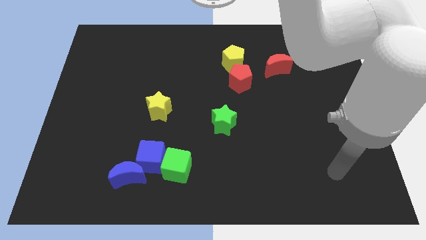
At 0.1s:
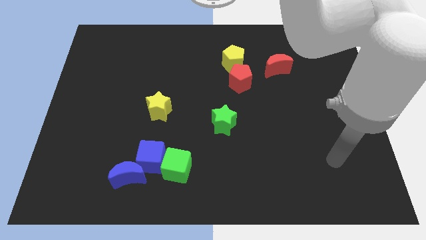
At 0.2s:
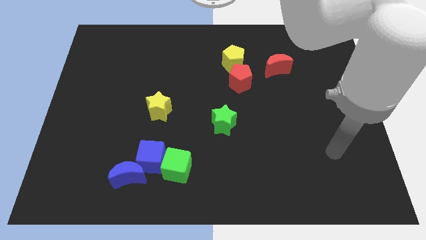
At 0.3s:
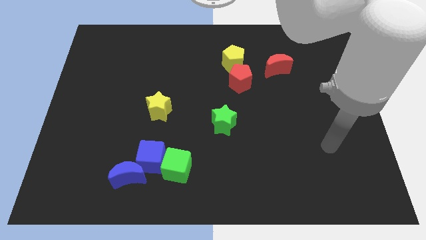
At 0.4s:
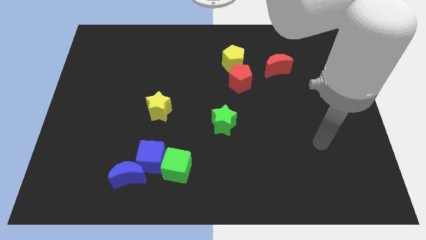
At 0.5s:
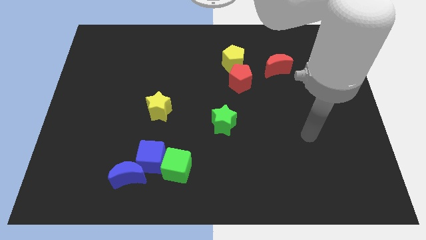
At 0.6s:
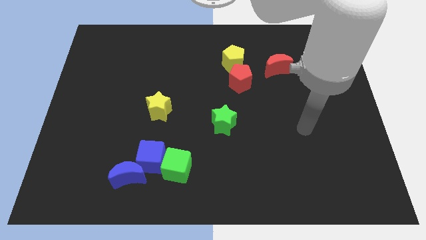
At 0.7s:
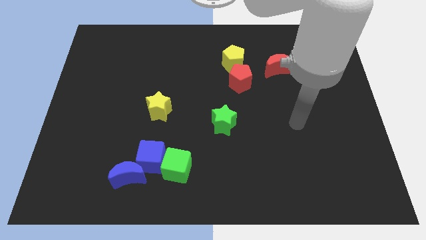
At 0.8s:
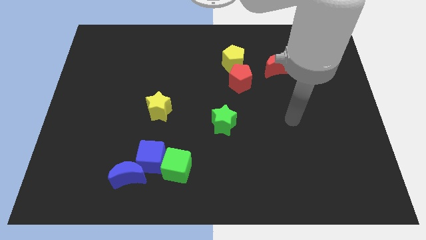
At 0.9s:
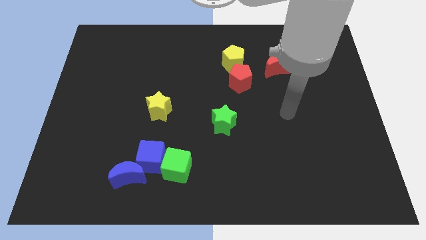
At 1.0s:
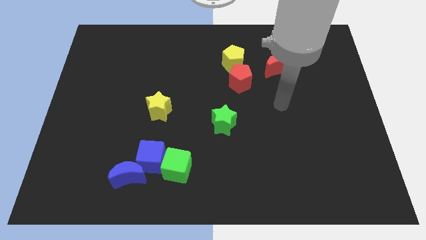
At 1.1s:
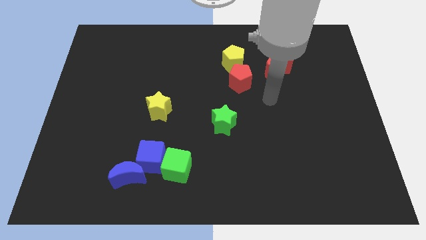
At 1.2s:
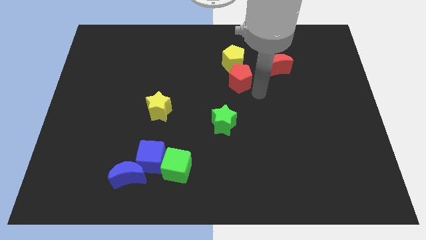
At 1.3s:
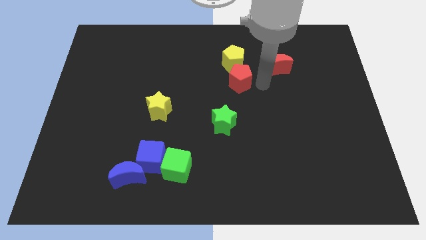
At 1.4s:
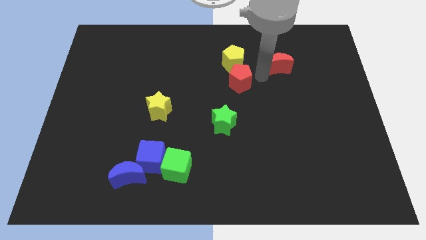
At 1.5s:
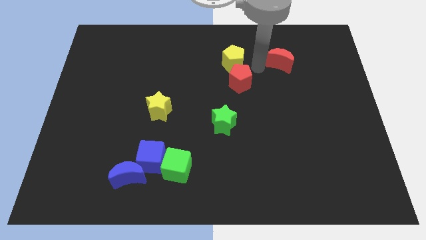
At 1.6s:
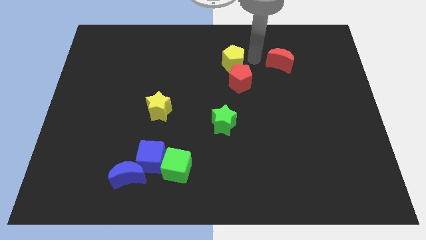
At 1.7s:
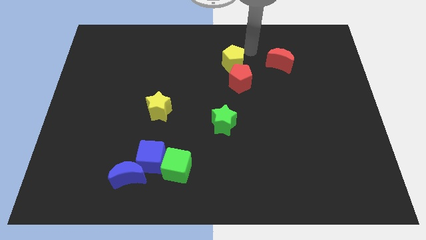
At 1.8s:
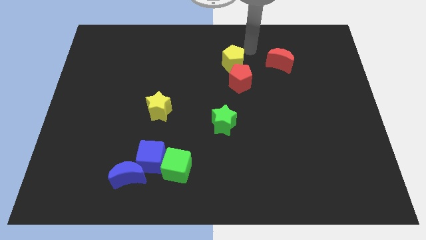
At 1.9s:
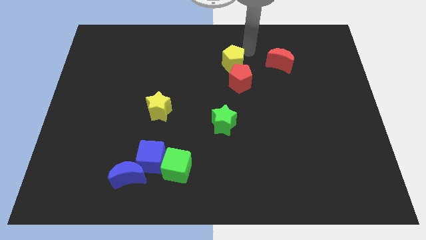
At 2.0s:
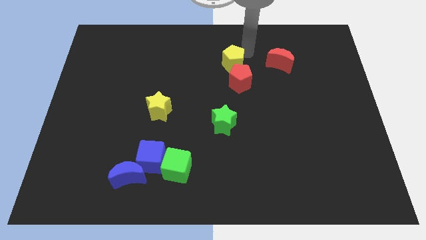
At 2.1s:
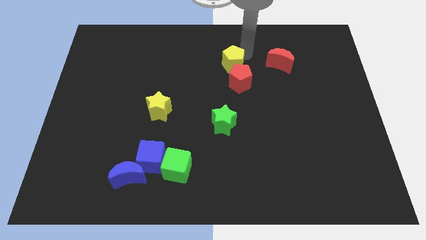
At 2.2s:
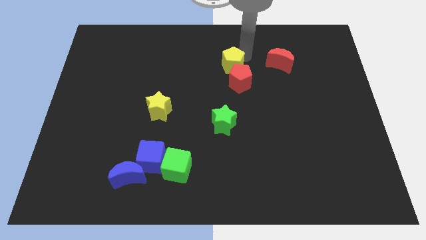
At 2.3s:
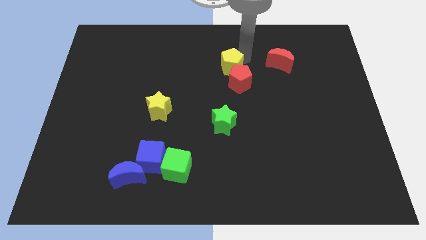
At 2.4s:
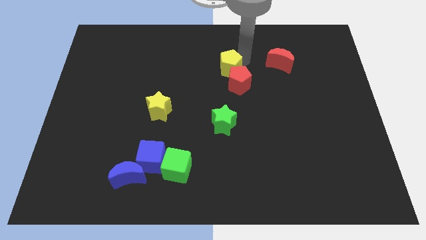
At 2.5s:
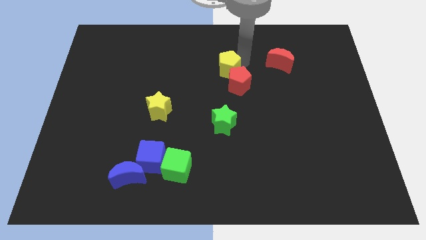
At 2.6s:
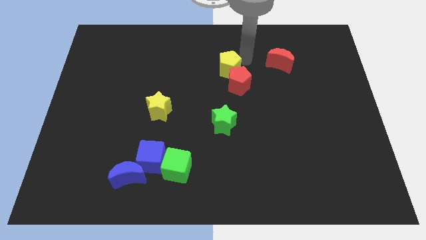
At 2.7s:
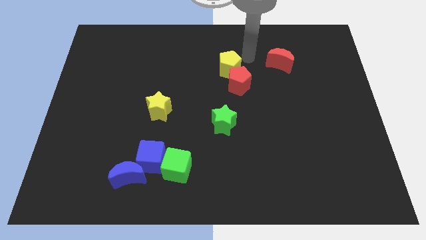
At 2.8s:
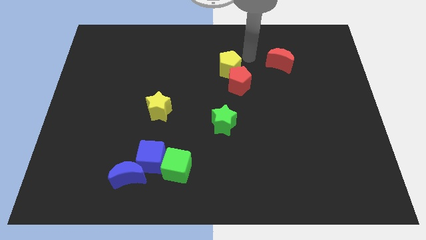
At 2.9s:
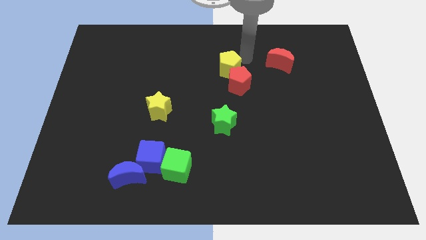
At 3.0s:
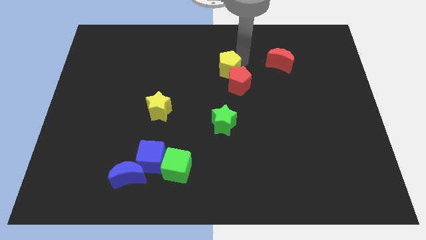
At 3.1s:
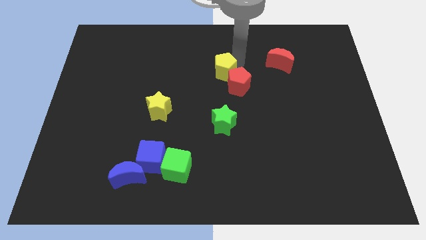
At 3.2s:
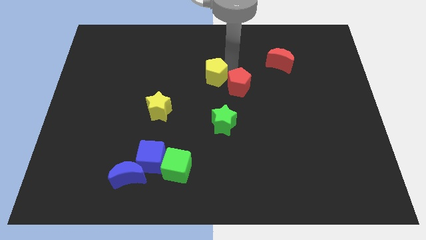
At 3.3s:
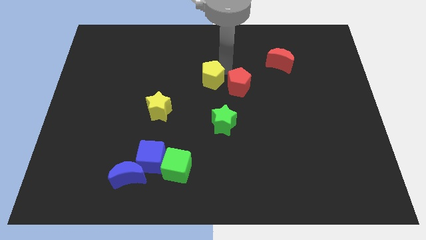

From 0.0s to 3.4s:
move the yellow pentagon down and then to the left a bit

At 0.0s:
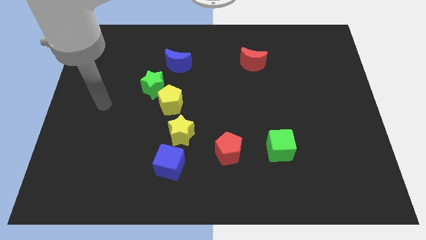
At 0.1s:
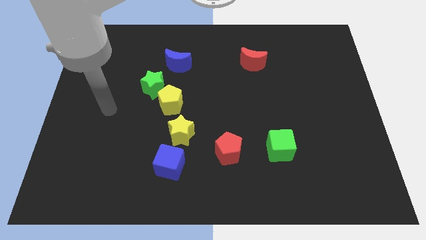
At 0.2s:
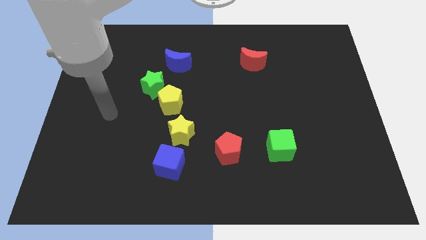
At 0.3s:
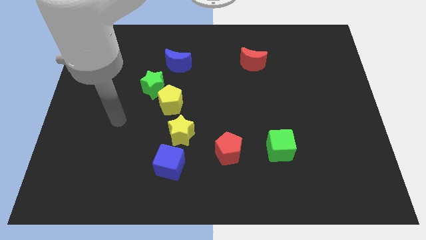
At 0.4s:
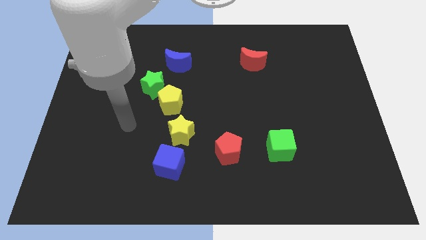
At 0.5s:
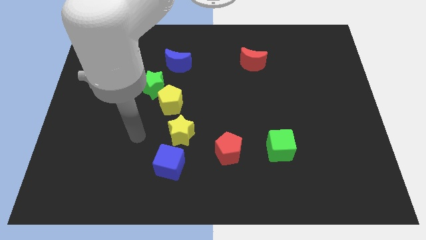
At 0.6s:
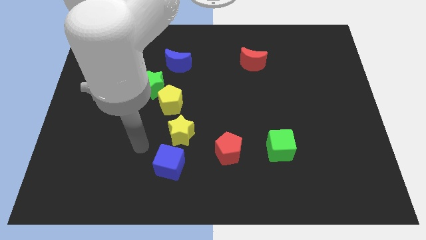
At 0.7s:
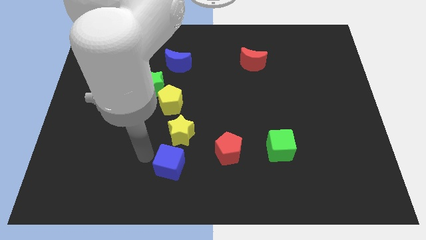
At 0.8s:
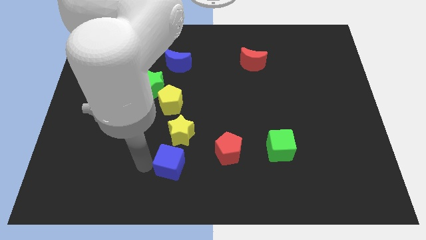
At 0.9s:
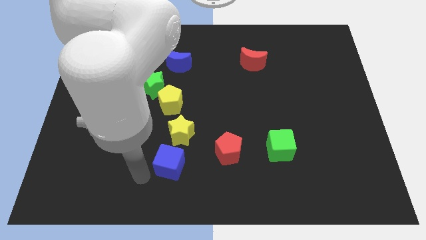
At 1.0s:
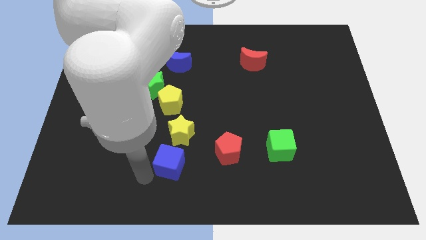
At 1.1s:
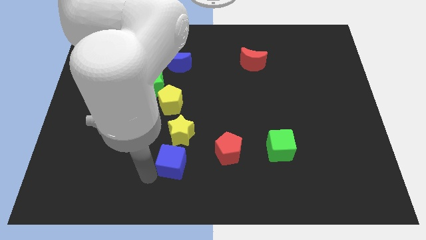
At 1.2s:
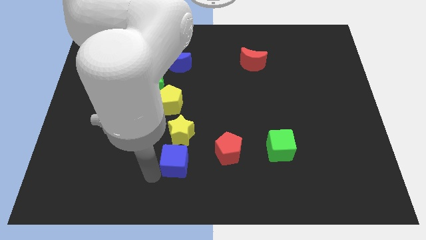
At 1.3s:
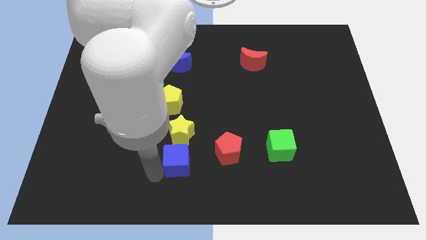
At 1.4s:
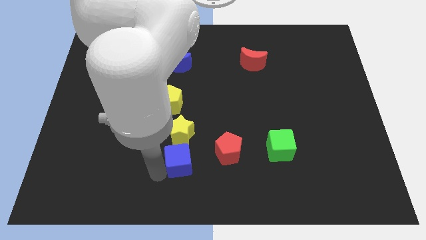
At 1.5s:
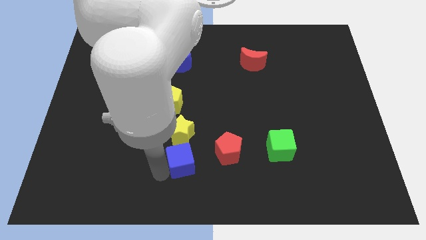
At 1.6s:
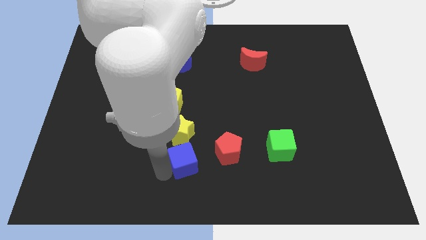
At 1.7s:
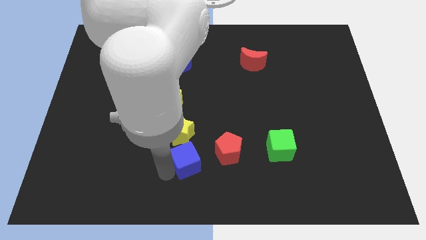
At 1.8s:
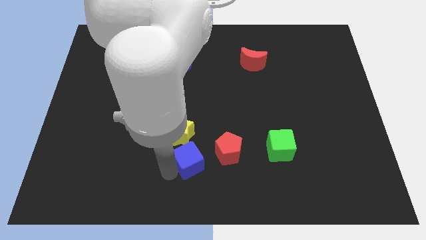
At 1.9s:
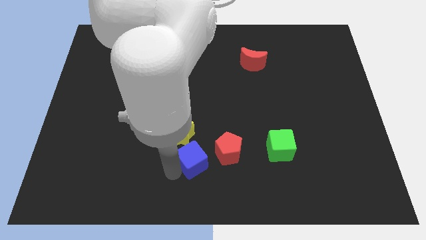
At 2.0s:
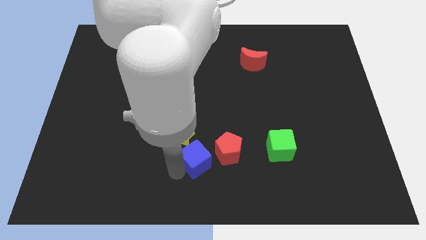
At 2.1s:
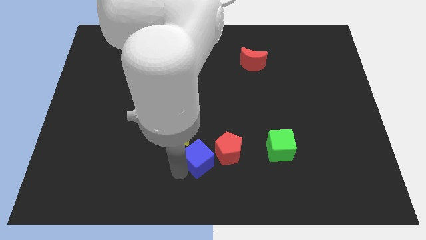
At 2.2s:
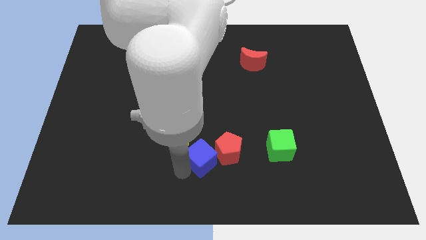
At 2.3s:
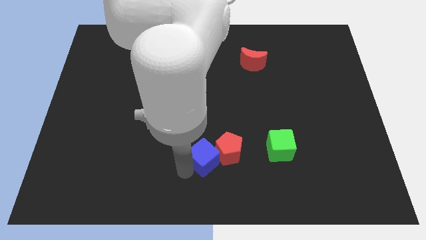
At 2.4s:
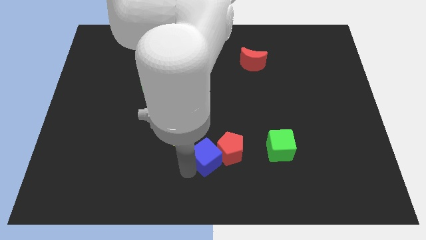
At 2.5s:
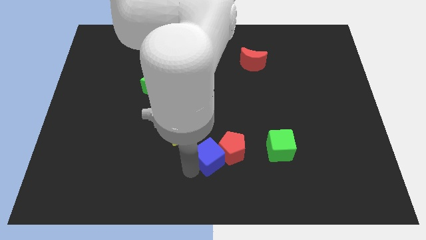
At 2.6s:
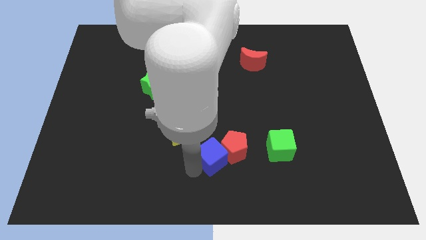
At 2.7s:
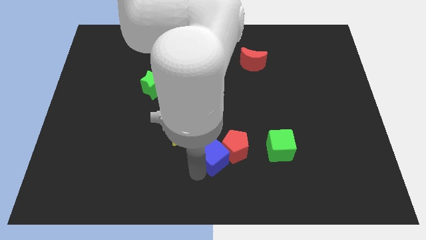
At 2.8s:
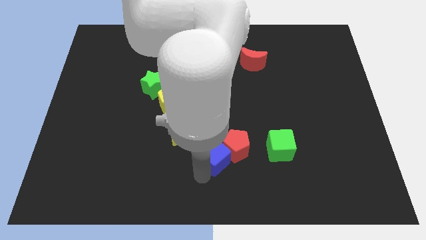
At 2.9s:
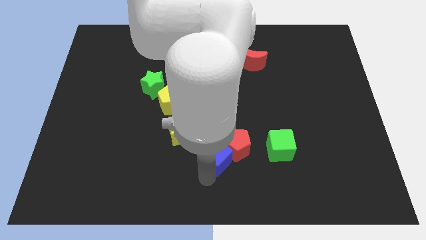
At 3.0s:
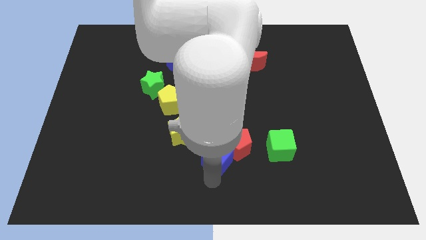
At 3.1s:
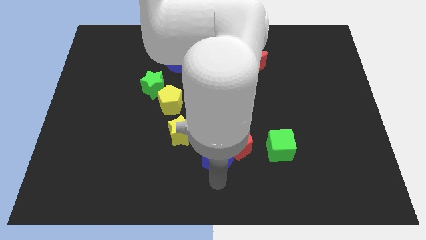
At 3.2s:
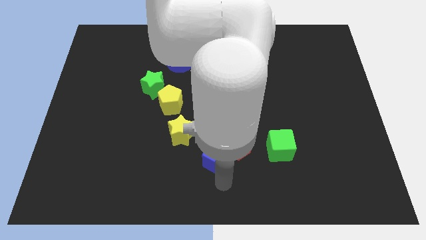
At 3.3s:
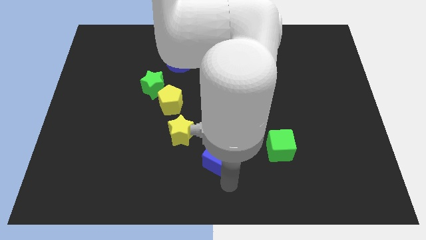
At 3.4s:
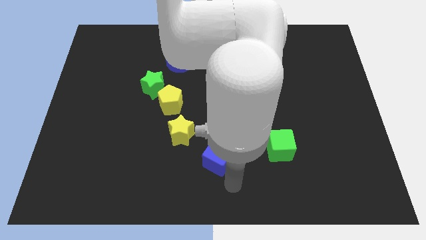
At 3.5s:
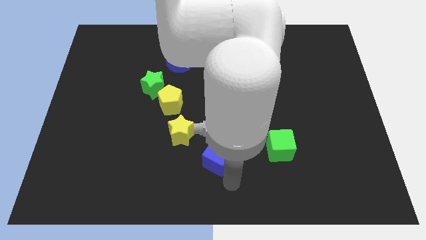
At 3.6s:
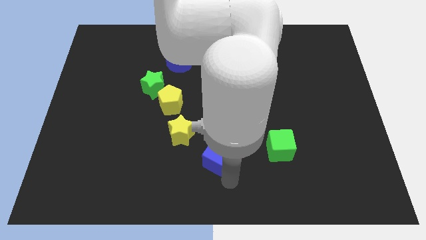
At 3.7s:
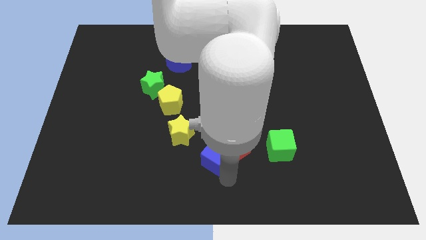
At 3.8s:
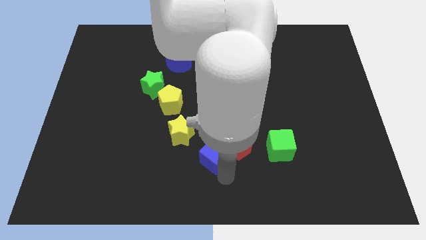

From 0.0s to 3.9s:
push the blue cube up and right diagonally a bit

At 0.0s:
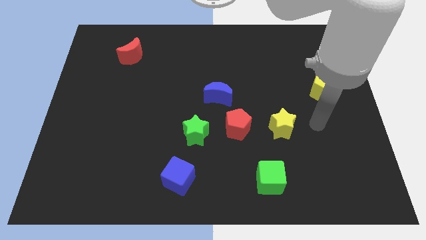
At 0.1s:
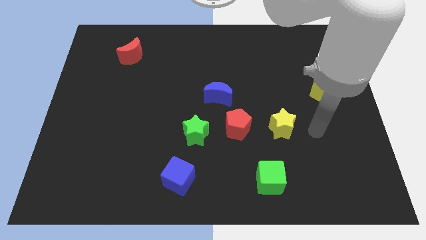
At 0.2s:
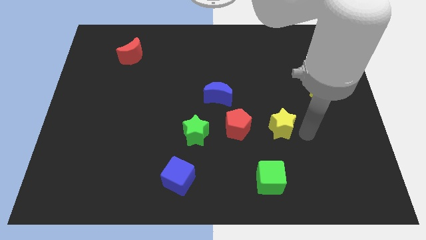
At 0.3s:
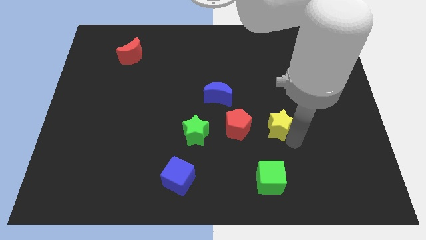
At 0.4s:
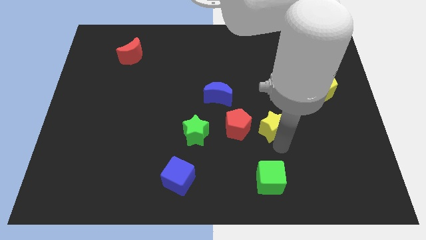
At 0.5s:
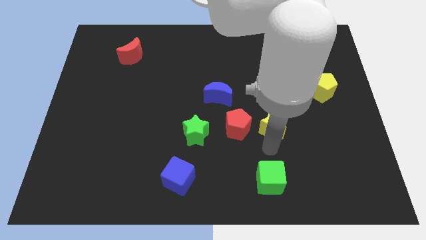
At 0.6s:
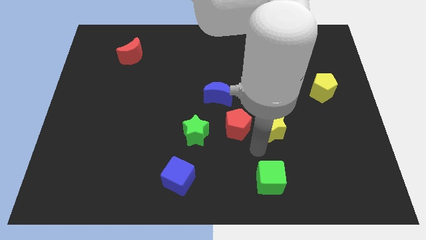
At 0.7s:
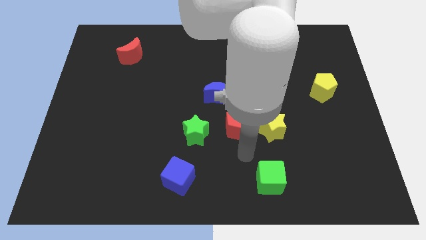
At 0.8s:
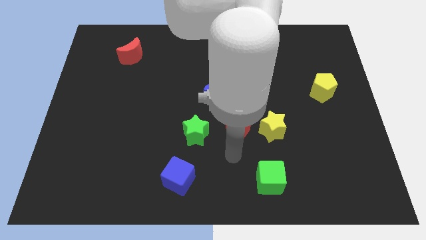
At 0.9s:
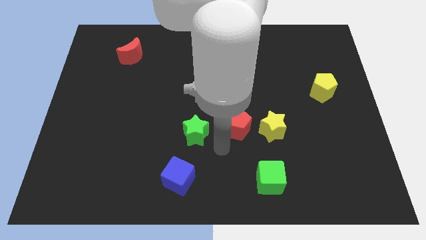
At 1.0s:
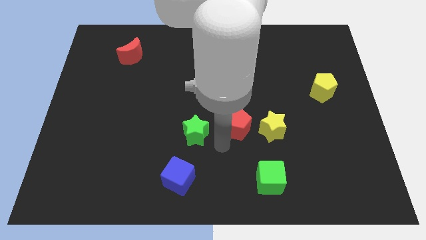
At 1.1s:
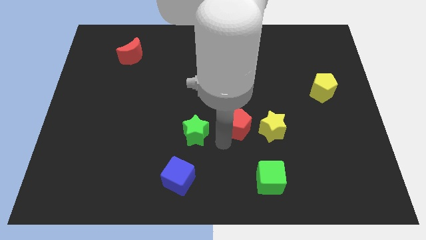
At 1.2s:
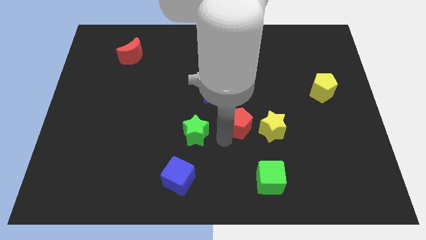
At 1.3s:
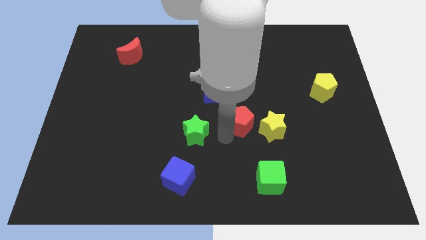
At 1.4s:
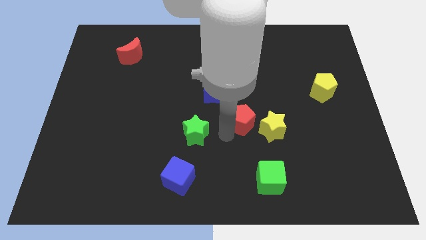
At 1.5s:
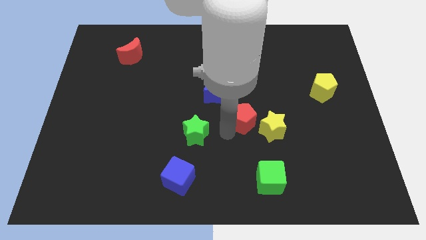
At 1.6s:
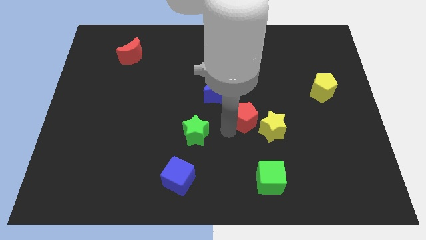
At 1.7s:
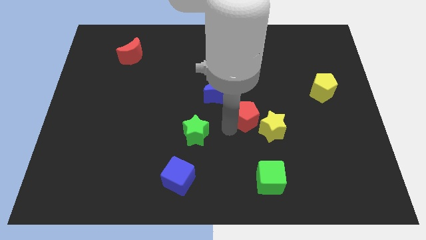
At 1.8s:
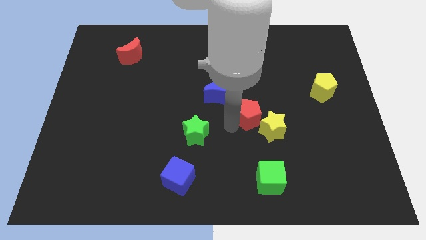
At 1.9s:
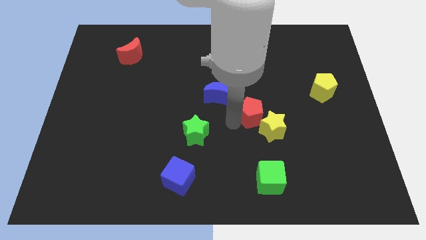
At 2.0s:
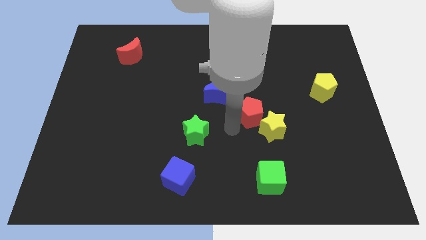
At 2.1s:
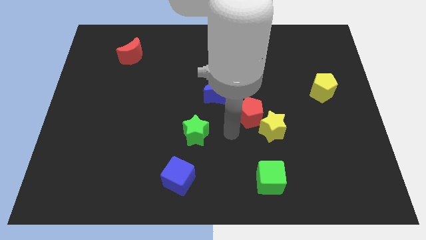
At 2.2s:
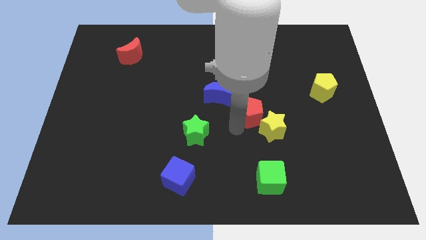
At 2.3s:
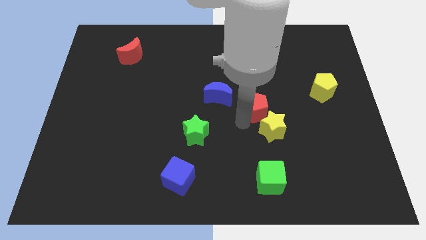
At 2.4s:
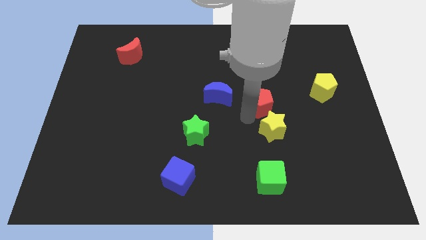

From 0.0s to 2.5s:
move the red pentagon up and right diagonally a little
